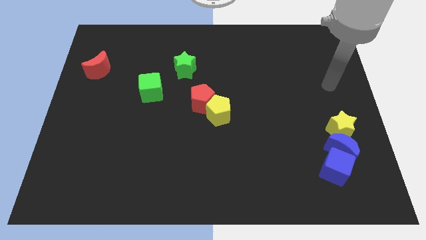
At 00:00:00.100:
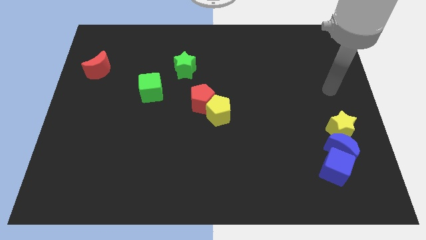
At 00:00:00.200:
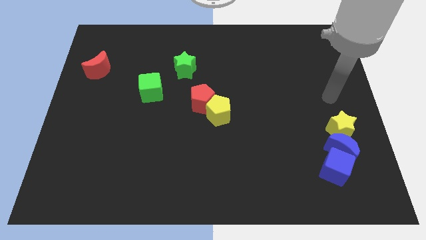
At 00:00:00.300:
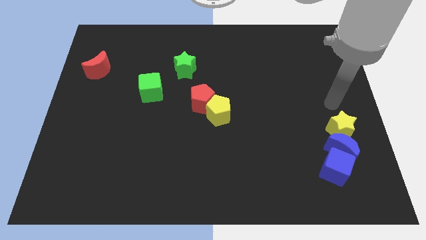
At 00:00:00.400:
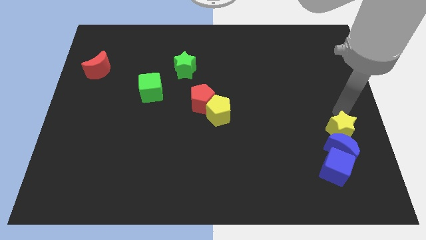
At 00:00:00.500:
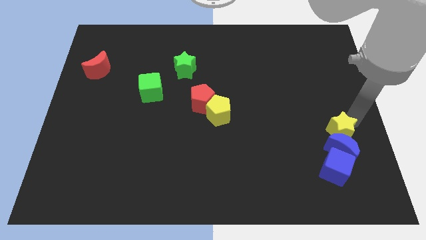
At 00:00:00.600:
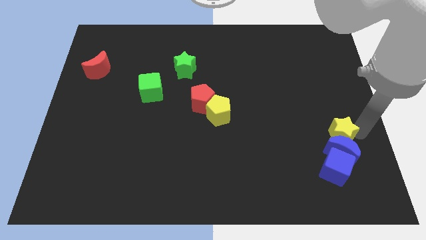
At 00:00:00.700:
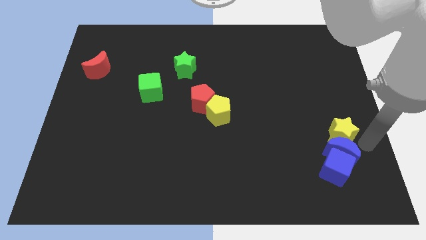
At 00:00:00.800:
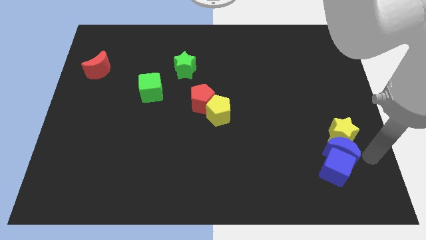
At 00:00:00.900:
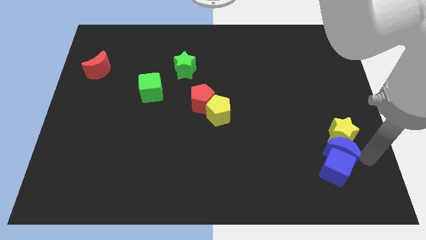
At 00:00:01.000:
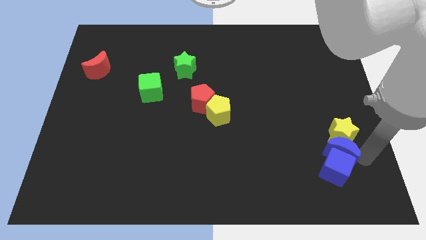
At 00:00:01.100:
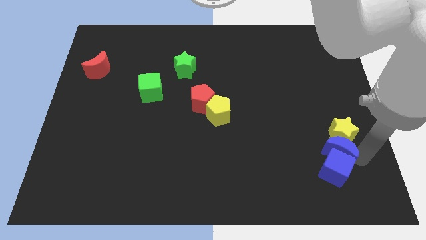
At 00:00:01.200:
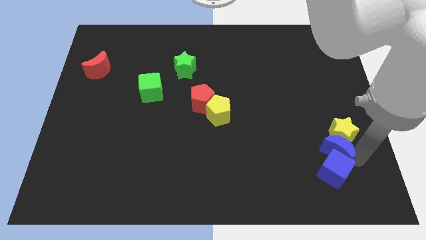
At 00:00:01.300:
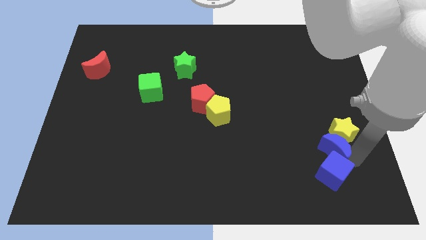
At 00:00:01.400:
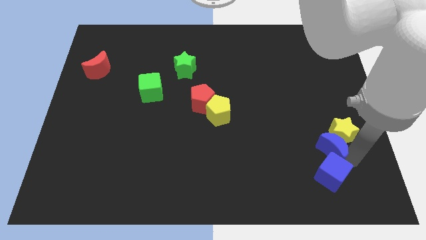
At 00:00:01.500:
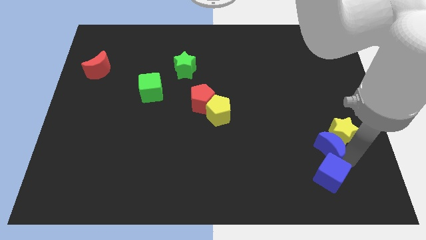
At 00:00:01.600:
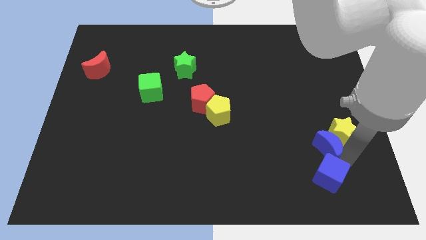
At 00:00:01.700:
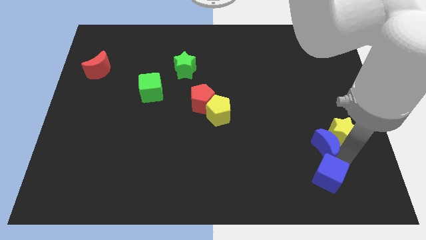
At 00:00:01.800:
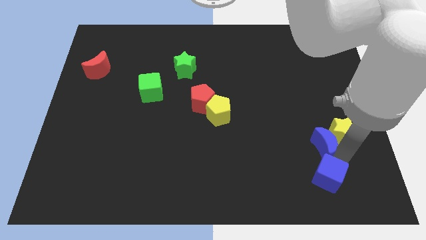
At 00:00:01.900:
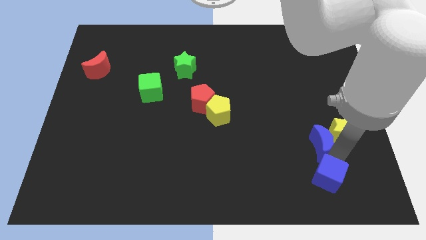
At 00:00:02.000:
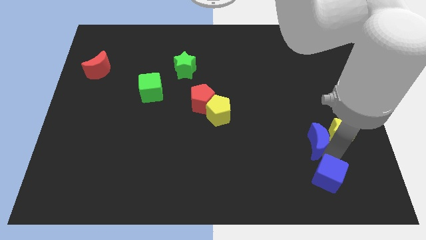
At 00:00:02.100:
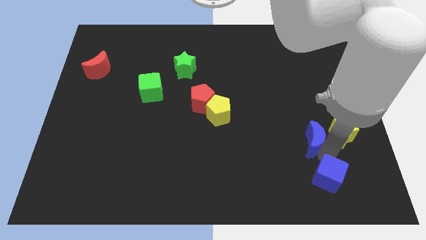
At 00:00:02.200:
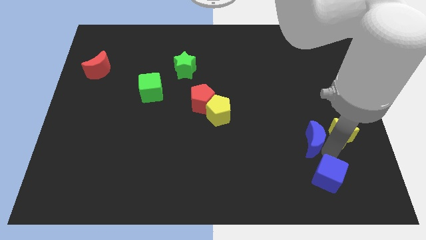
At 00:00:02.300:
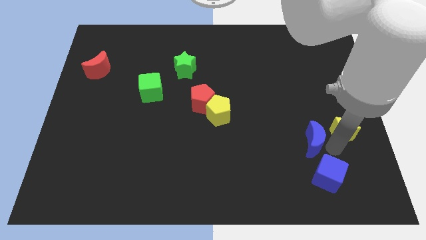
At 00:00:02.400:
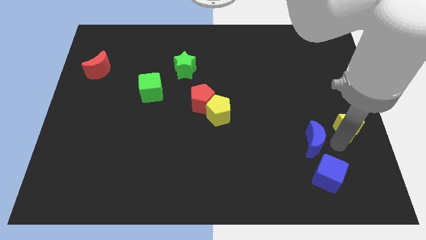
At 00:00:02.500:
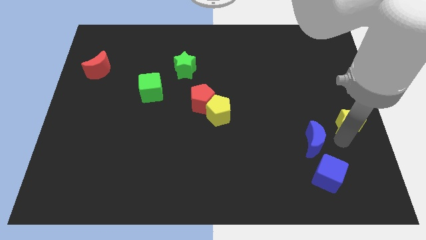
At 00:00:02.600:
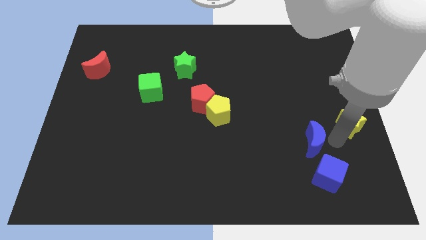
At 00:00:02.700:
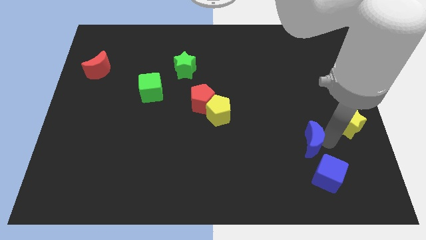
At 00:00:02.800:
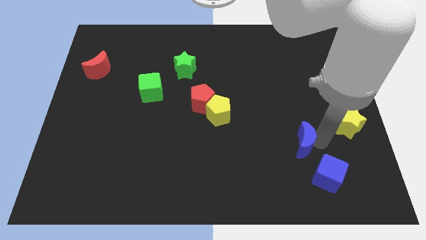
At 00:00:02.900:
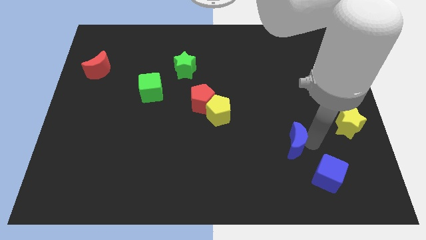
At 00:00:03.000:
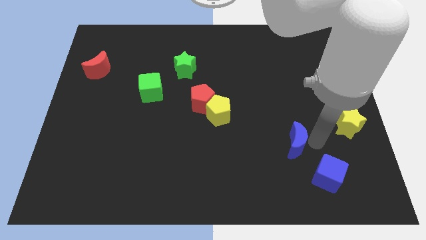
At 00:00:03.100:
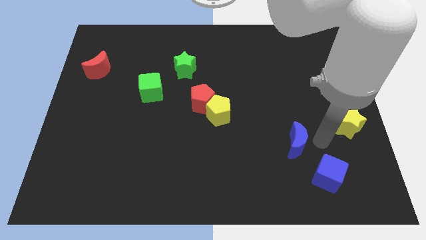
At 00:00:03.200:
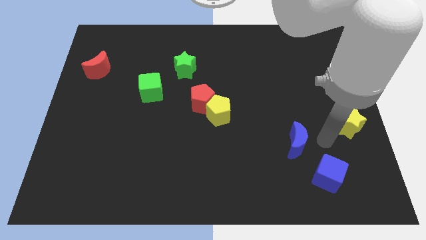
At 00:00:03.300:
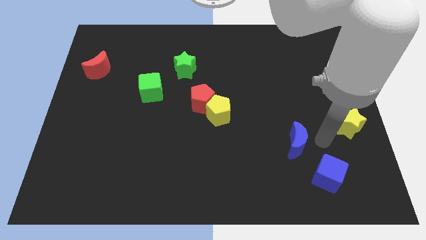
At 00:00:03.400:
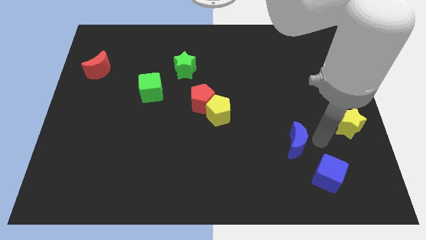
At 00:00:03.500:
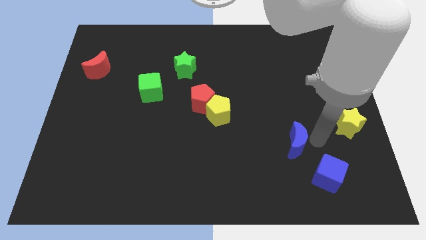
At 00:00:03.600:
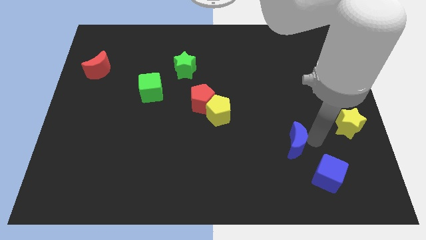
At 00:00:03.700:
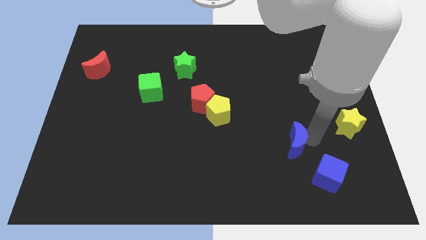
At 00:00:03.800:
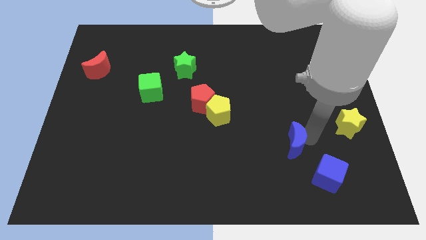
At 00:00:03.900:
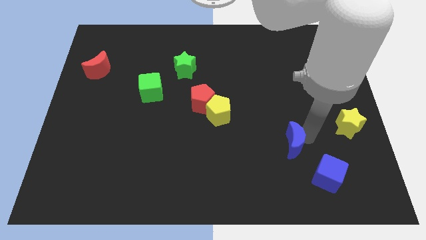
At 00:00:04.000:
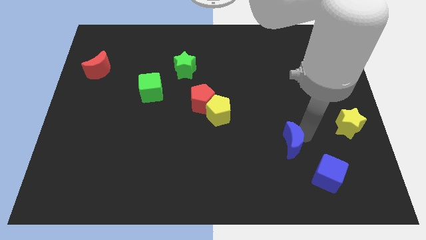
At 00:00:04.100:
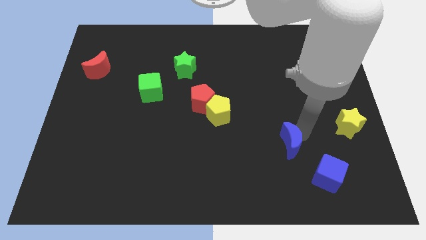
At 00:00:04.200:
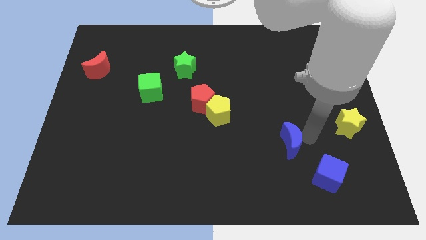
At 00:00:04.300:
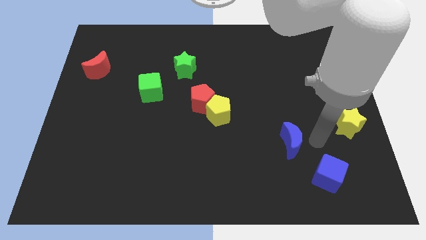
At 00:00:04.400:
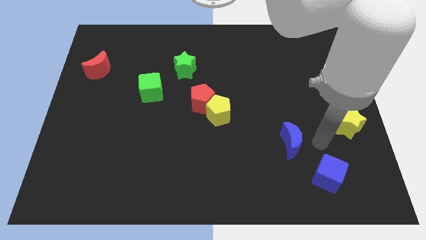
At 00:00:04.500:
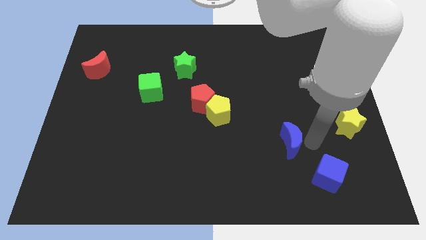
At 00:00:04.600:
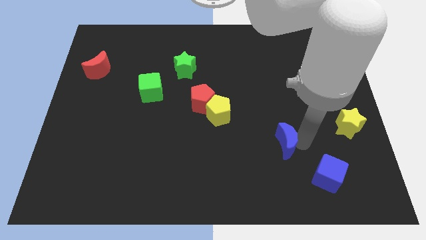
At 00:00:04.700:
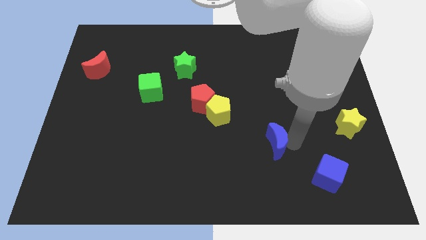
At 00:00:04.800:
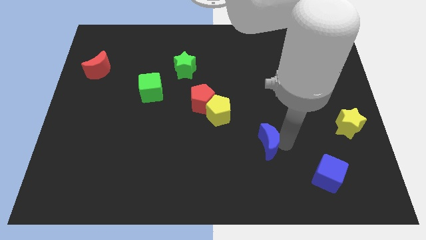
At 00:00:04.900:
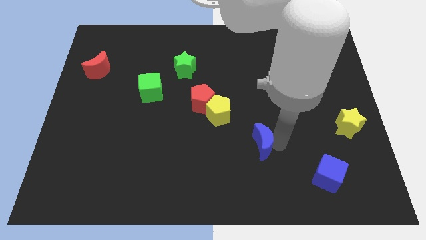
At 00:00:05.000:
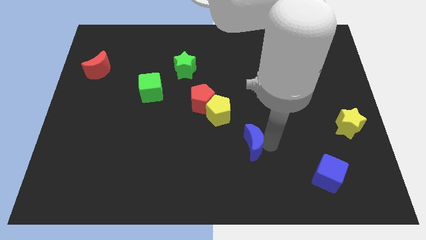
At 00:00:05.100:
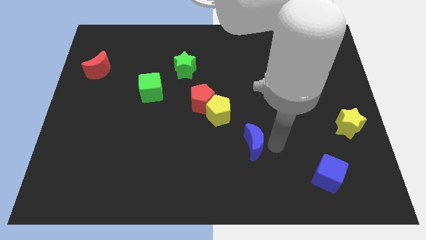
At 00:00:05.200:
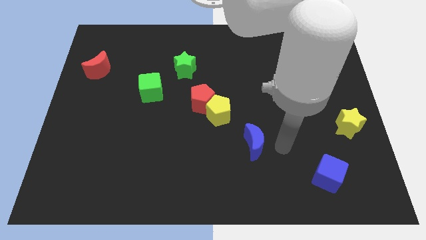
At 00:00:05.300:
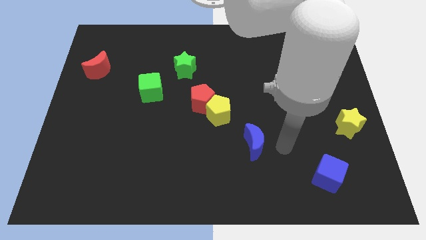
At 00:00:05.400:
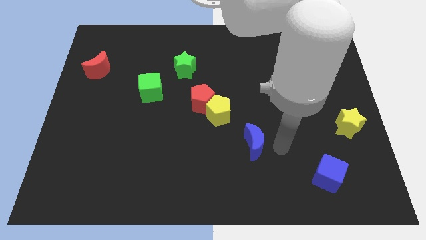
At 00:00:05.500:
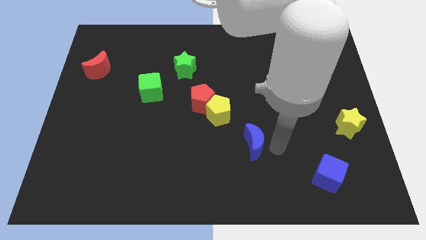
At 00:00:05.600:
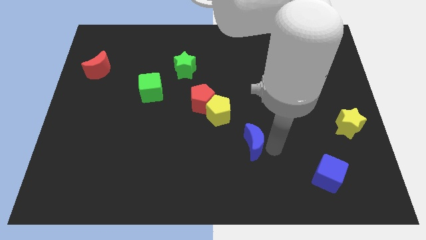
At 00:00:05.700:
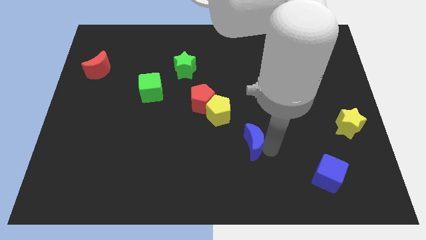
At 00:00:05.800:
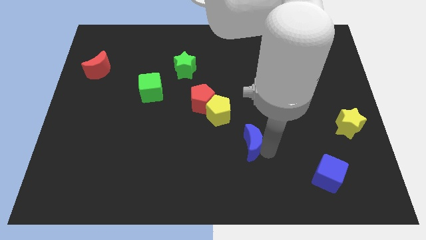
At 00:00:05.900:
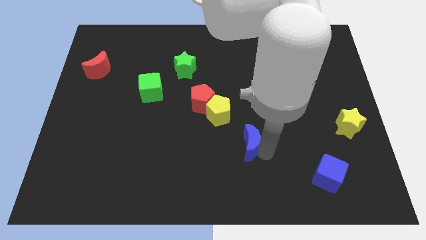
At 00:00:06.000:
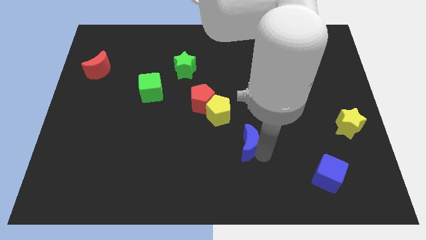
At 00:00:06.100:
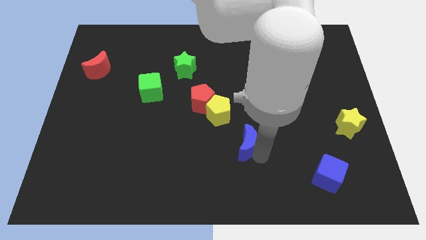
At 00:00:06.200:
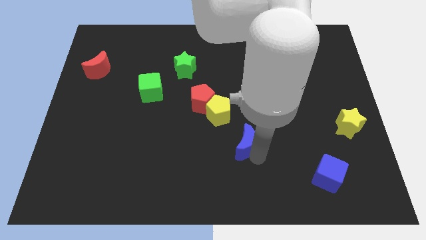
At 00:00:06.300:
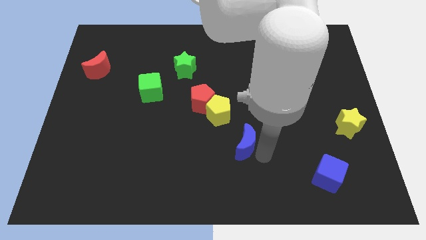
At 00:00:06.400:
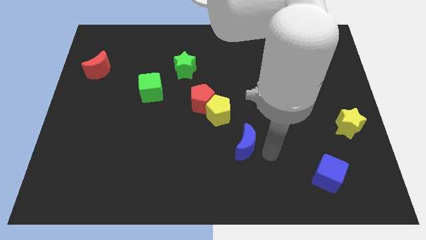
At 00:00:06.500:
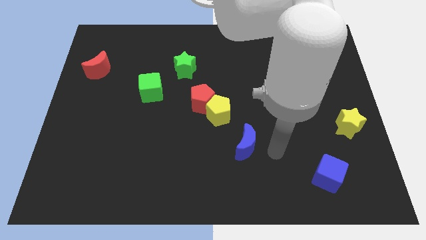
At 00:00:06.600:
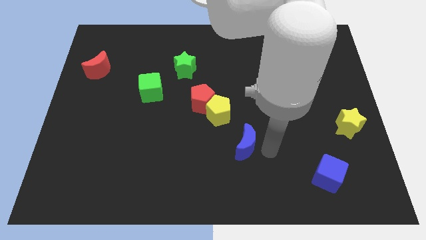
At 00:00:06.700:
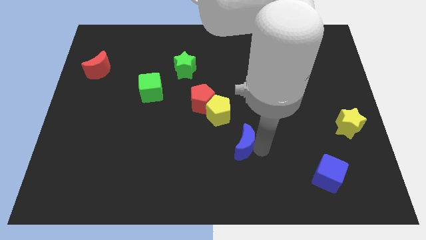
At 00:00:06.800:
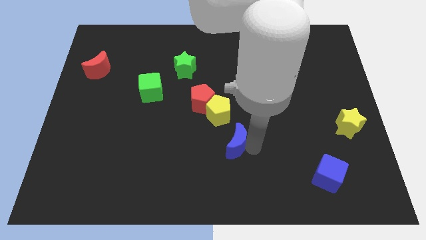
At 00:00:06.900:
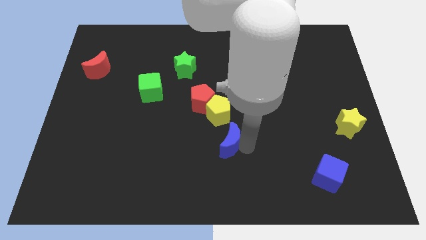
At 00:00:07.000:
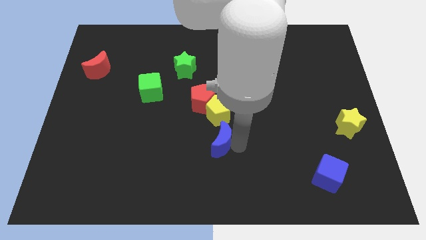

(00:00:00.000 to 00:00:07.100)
move the blue moon below the red pentagon
